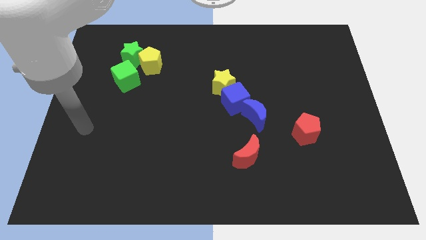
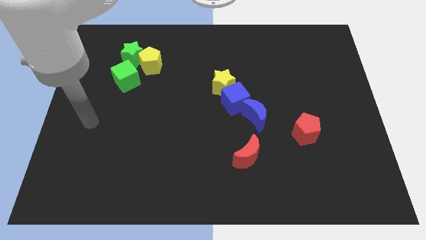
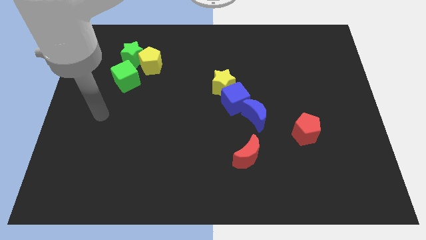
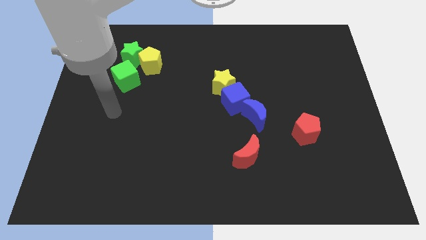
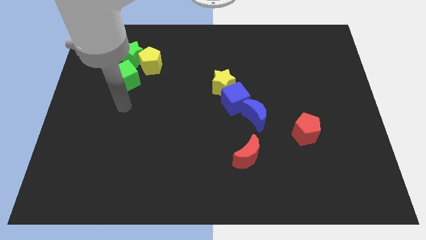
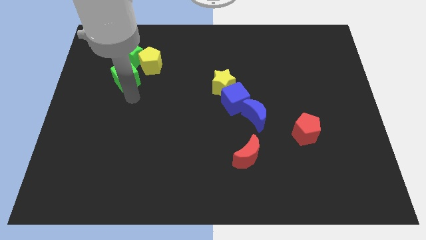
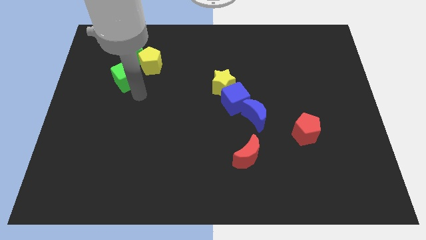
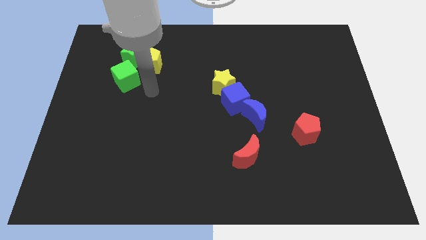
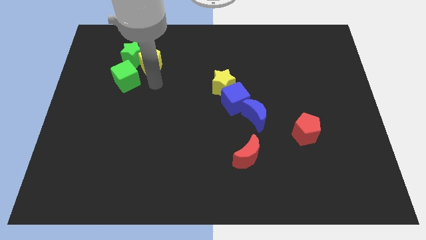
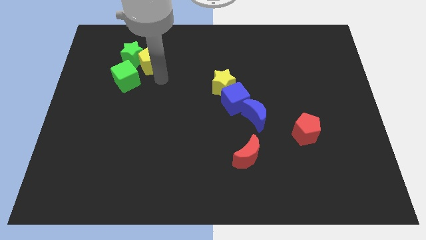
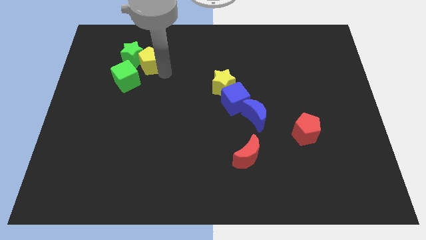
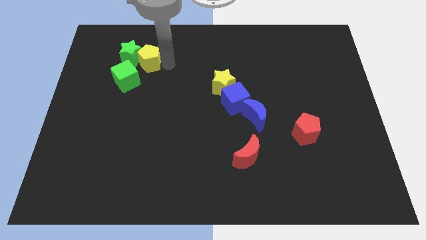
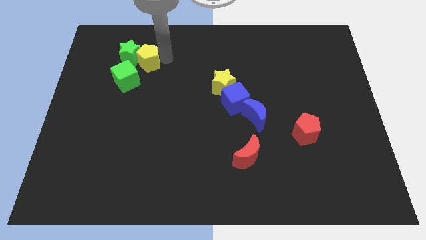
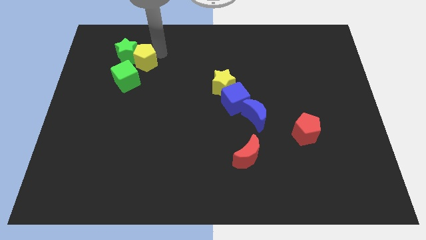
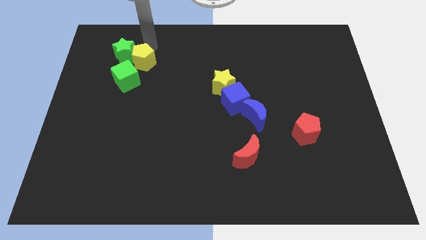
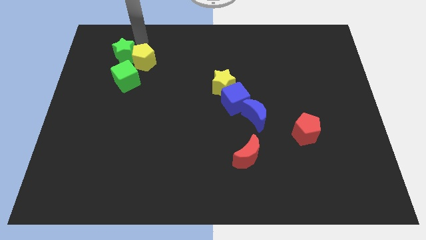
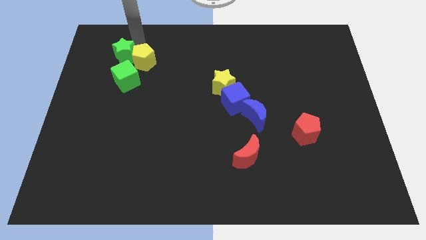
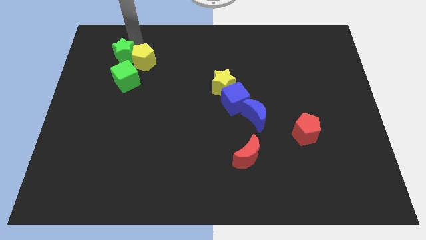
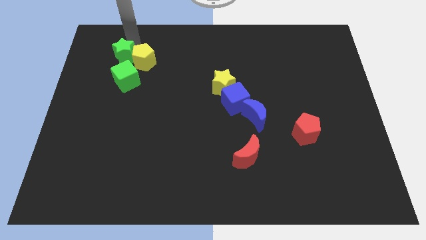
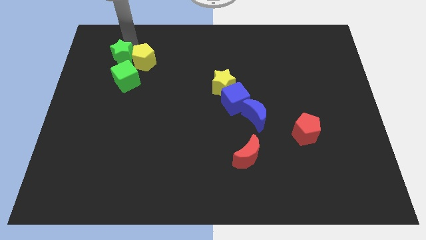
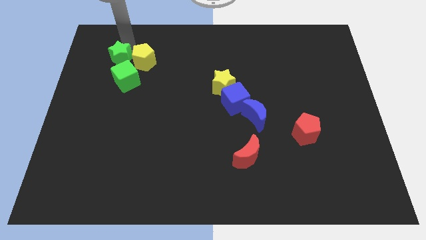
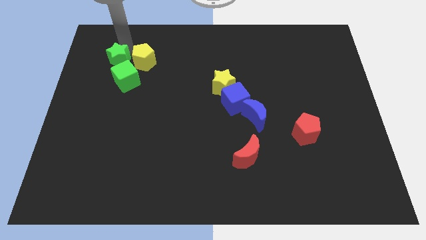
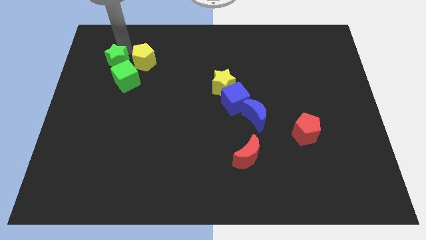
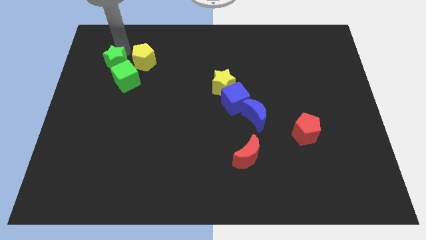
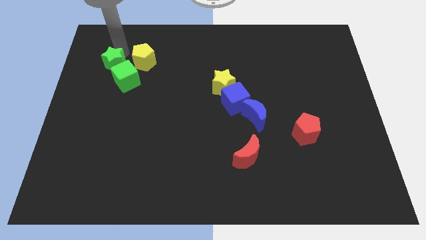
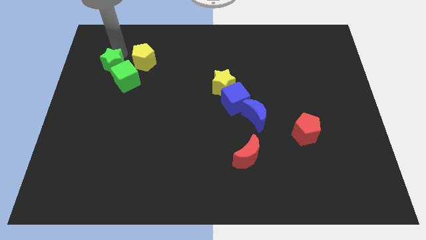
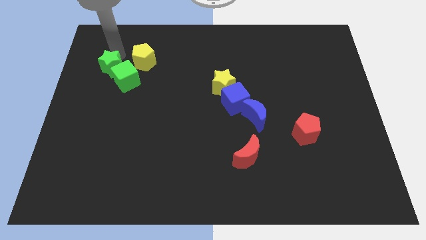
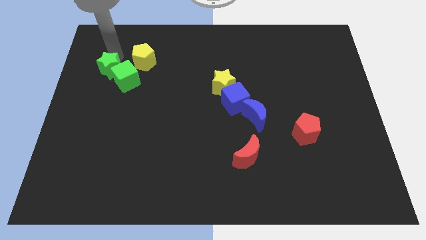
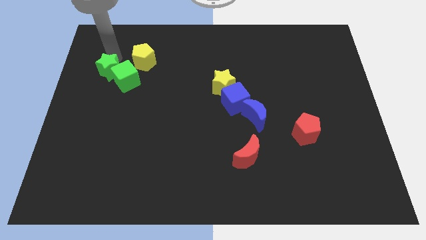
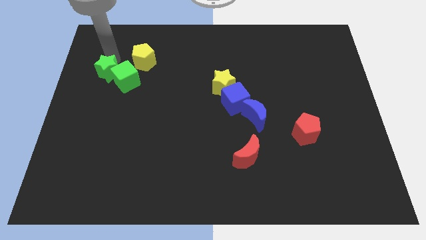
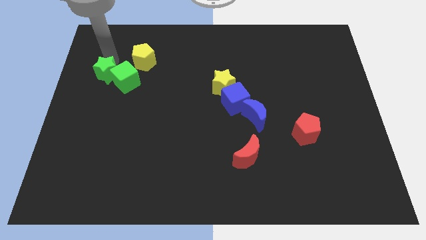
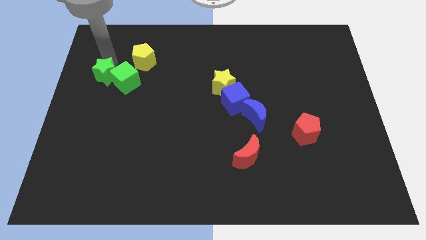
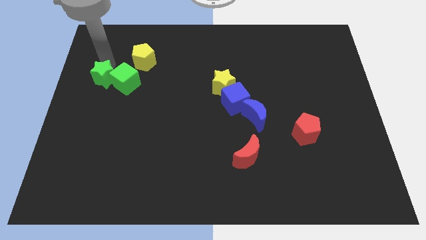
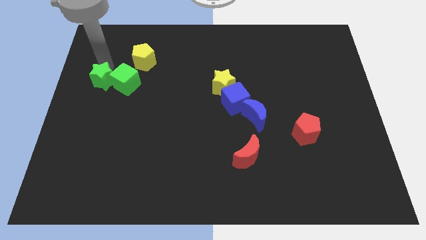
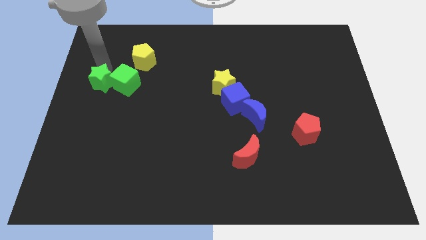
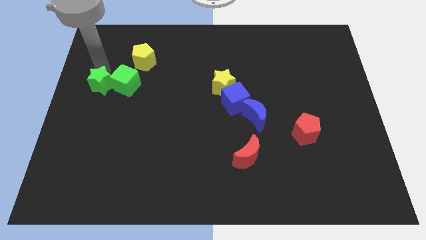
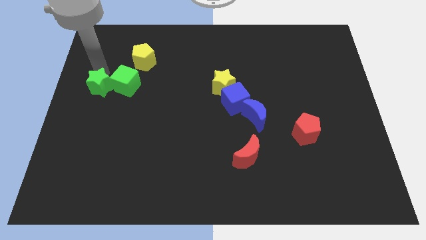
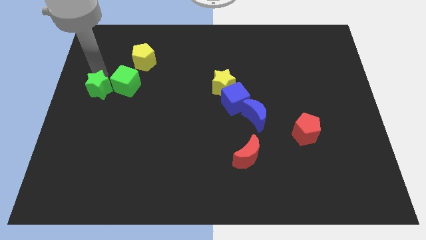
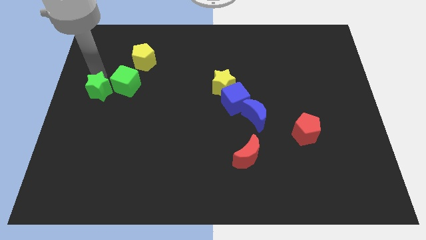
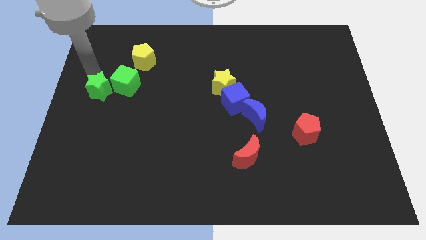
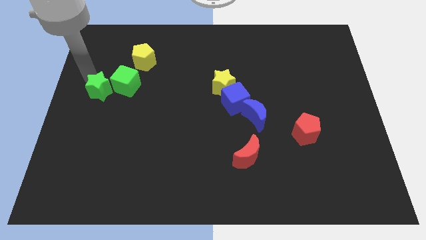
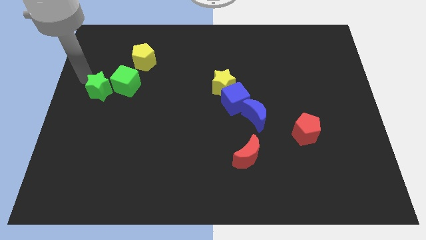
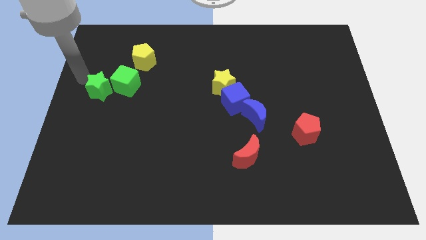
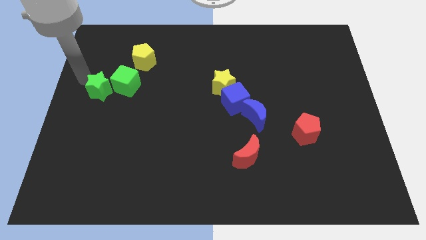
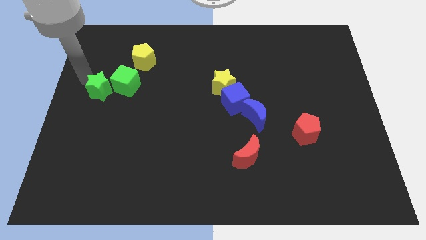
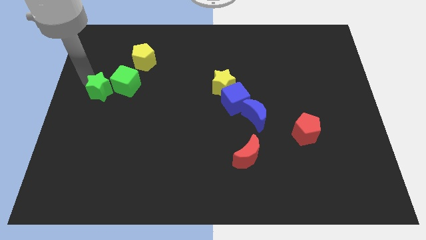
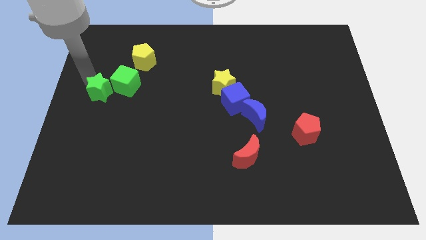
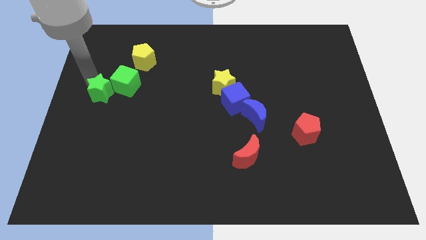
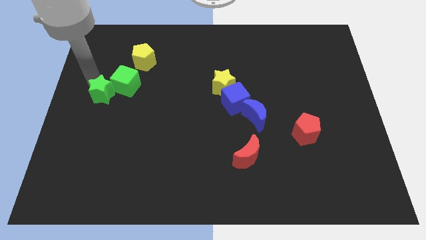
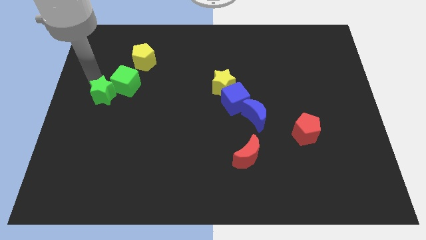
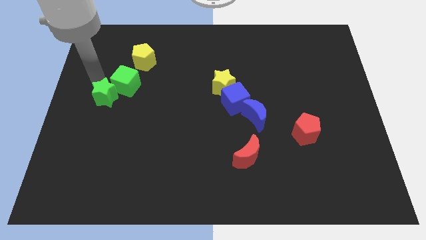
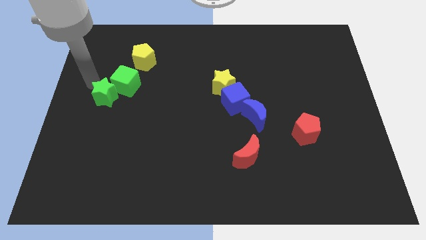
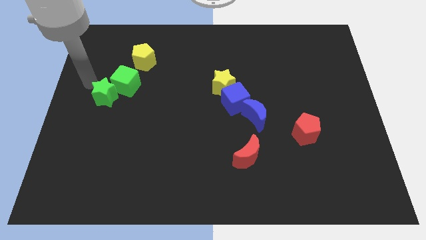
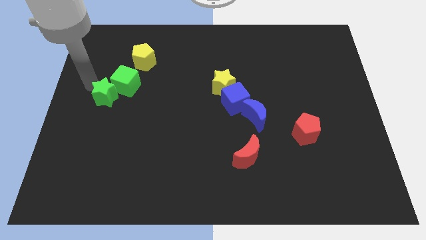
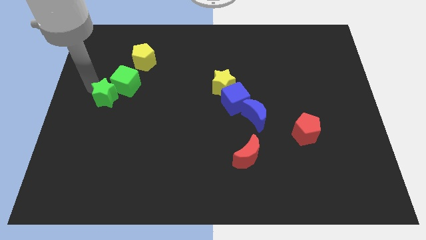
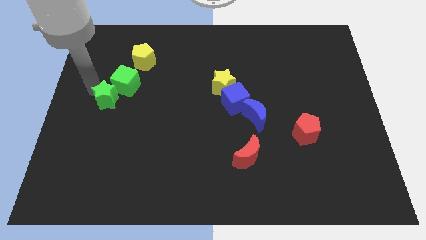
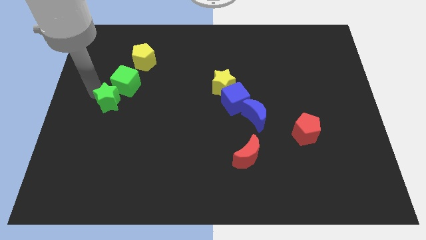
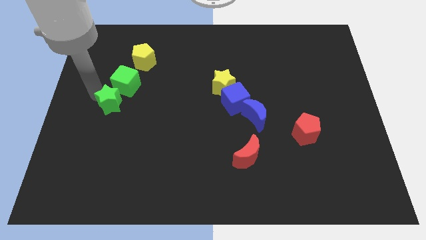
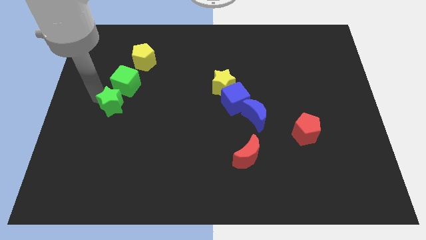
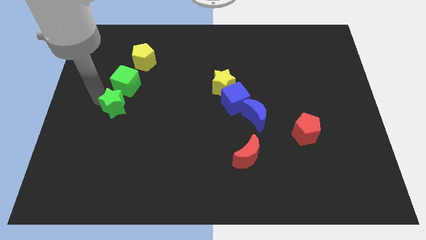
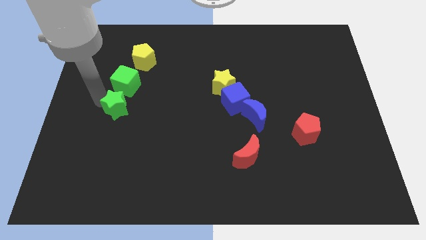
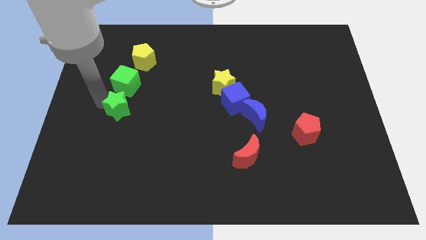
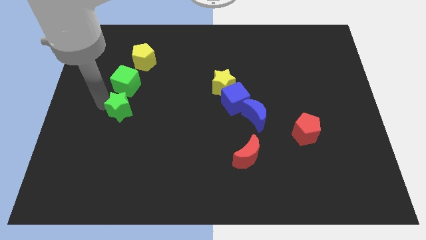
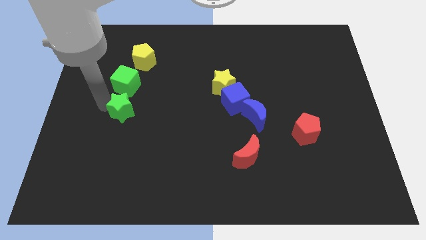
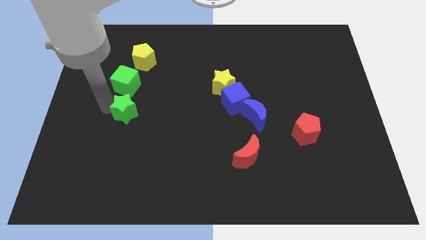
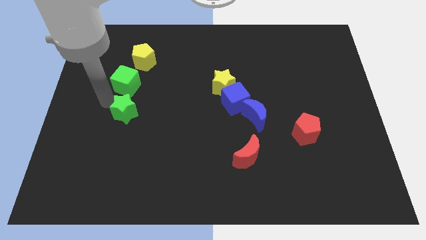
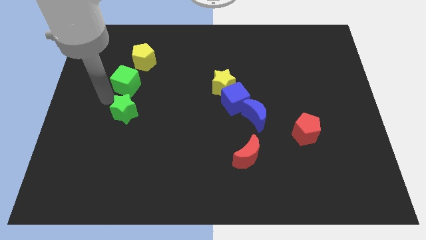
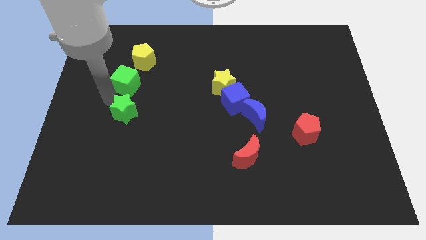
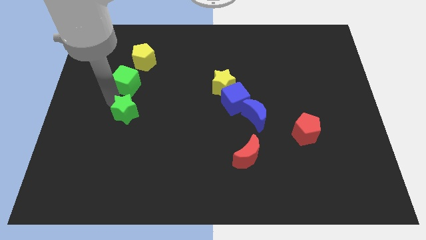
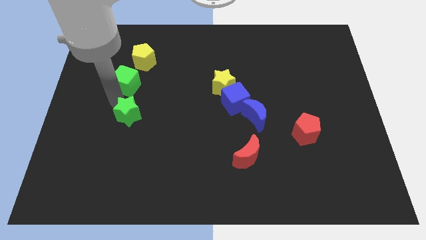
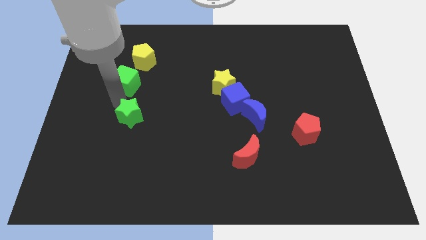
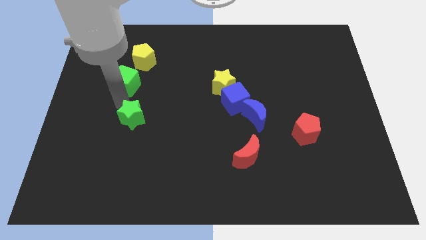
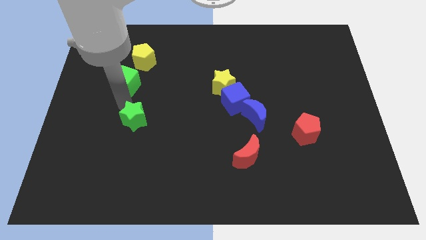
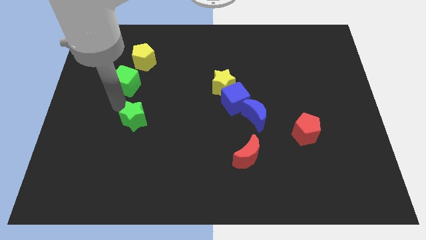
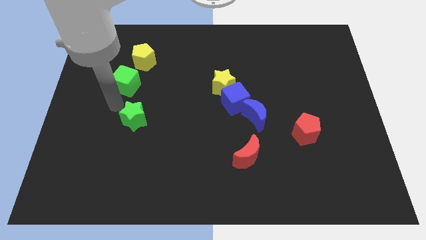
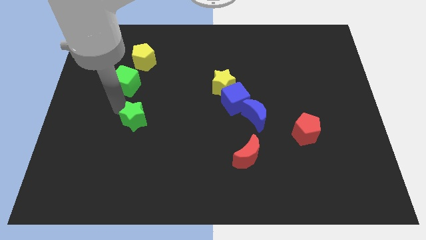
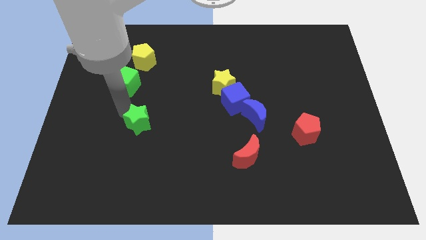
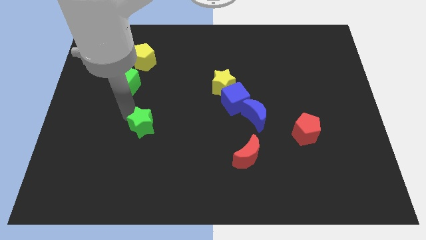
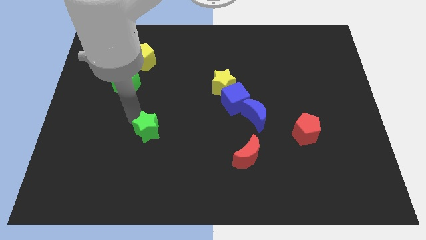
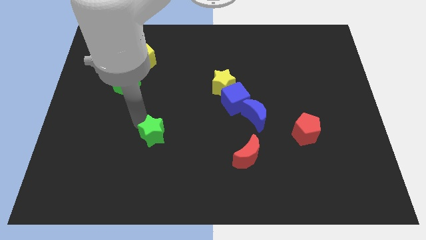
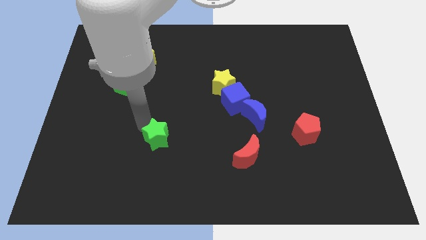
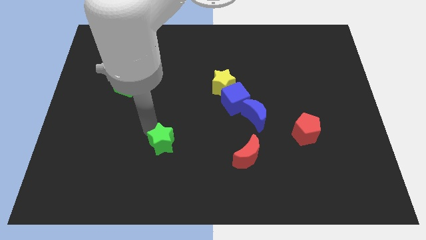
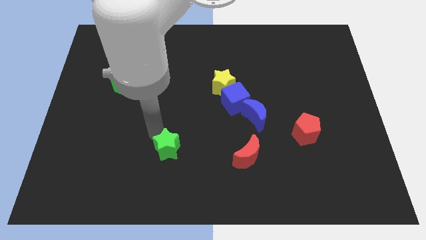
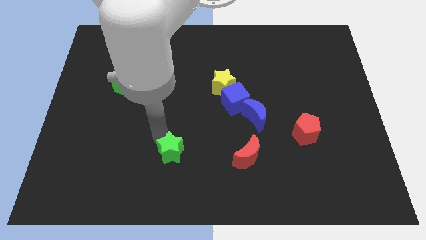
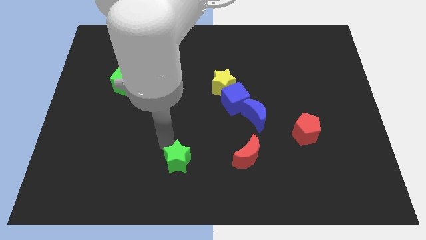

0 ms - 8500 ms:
push the green star to the bottom side
